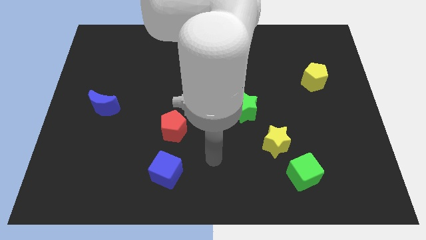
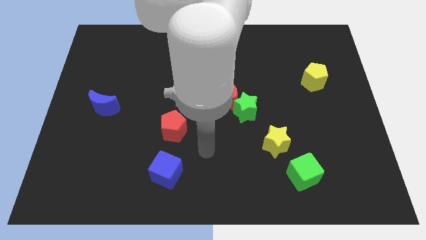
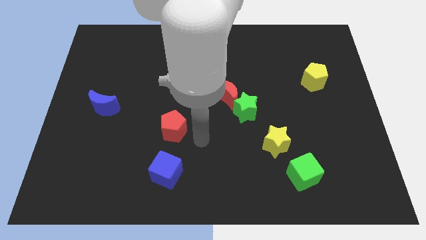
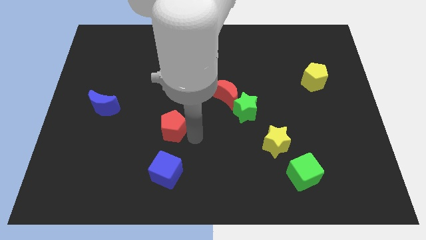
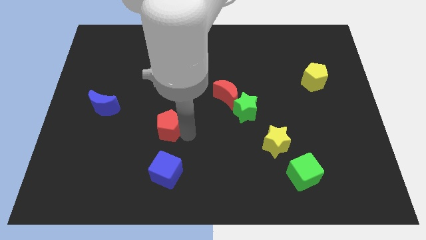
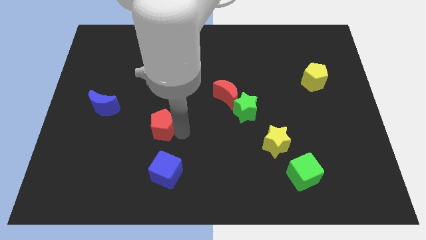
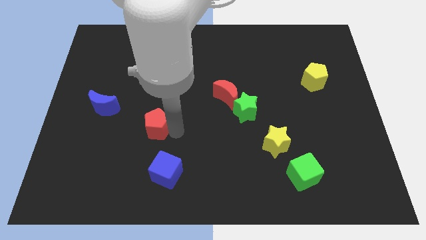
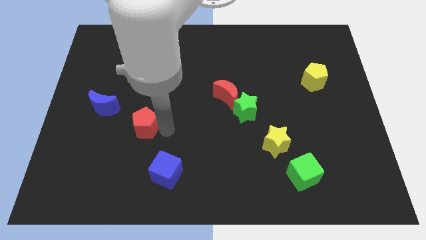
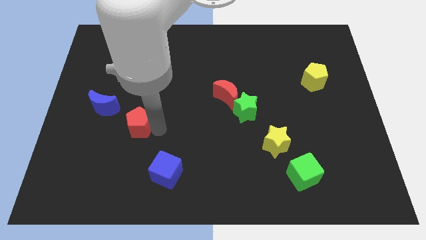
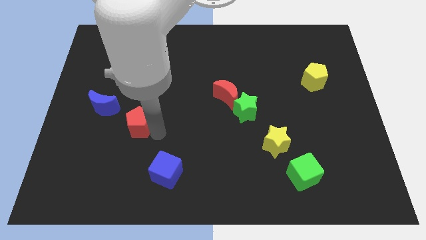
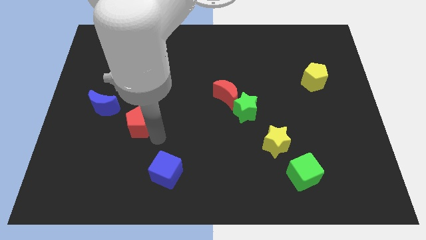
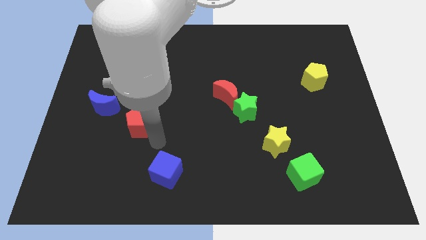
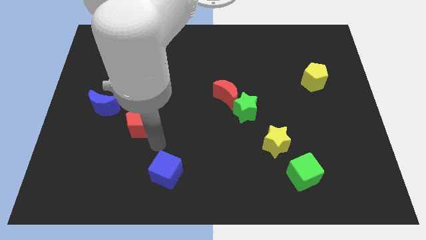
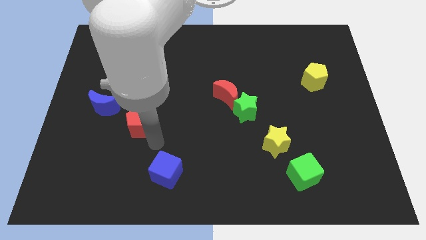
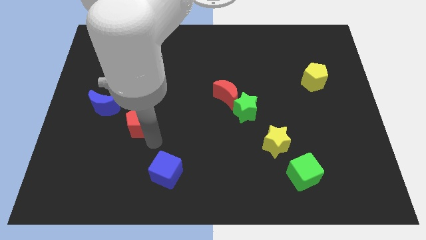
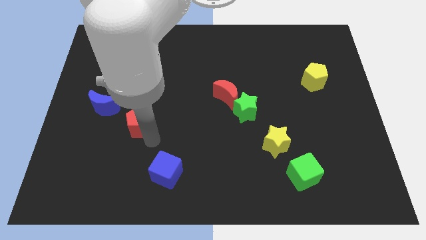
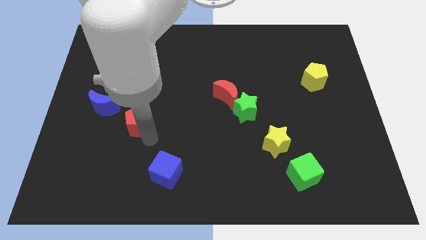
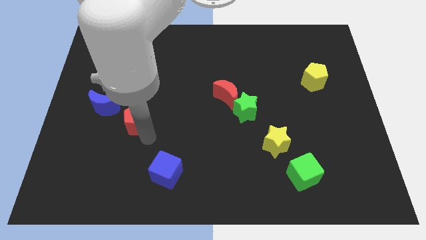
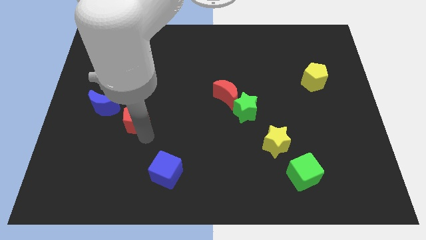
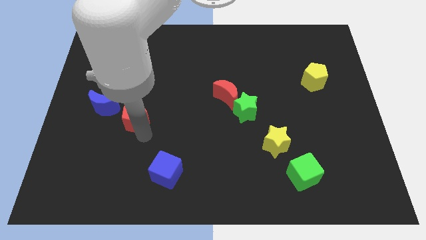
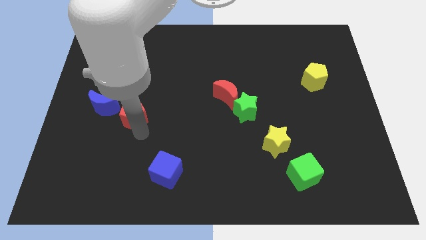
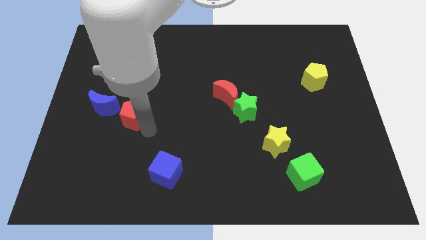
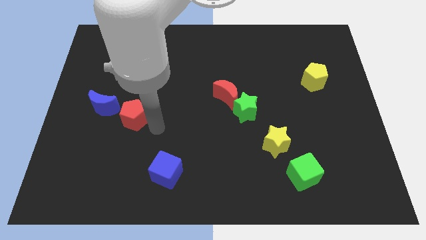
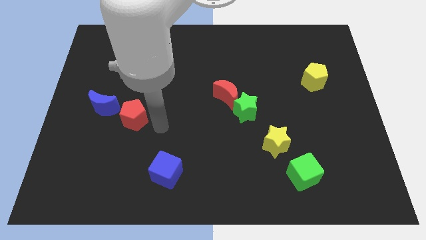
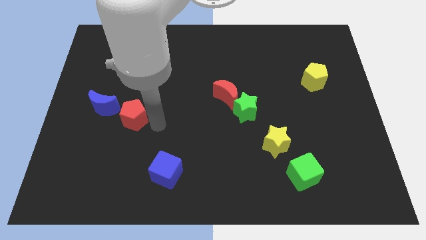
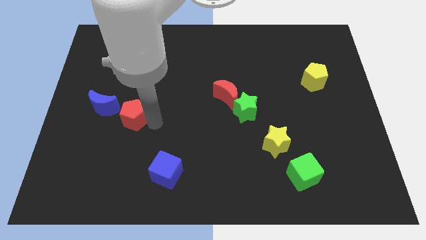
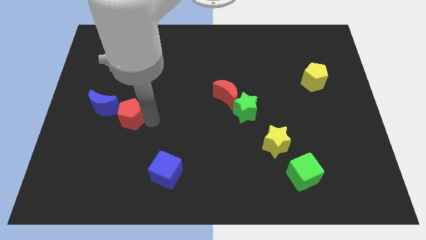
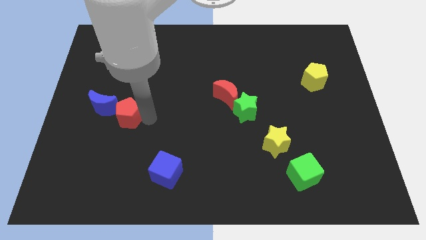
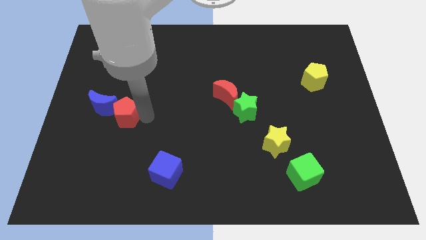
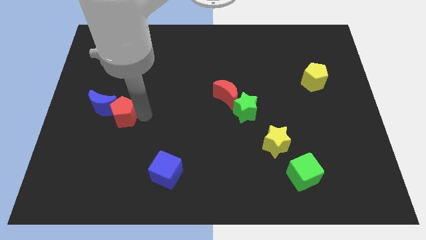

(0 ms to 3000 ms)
slide the red pentagon next to the blue moon

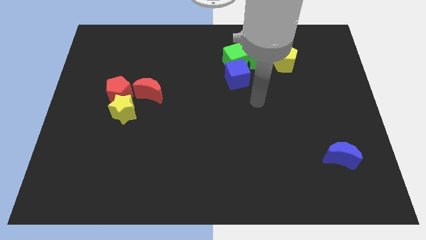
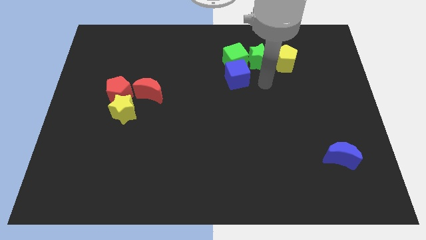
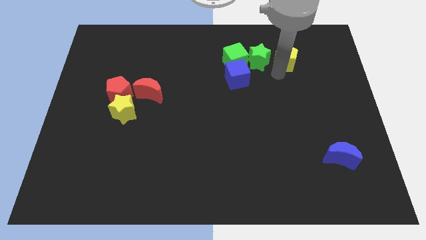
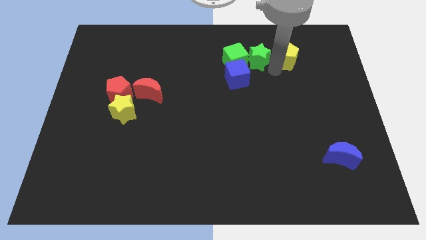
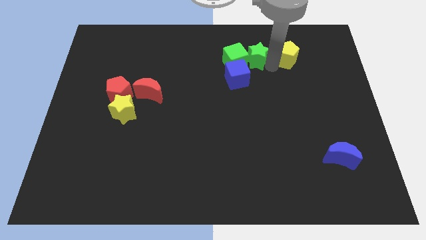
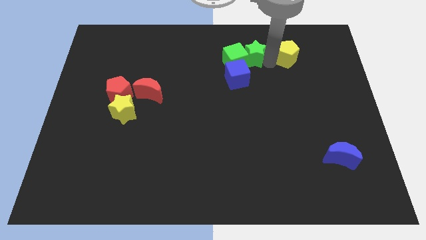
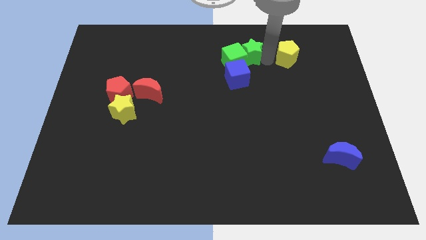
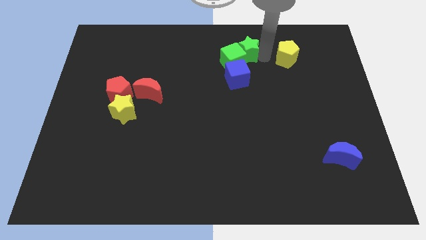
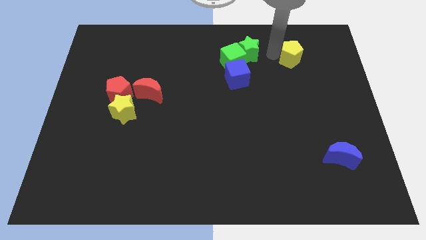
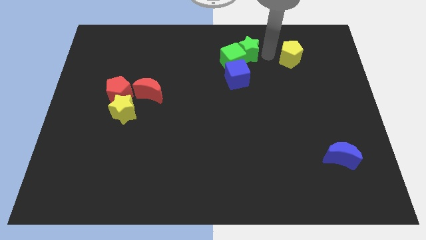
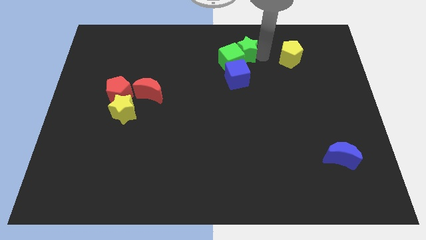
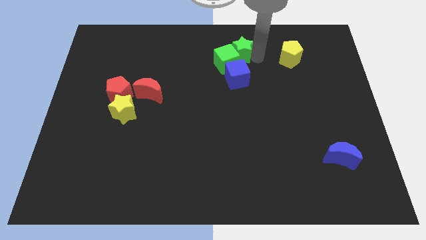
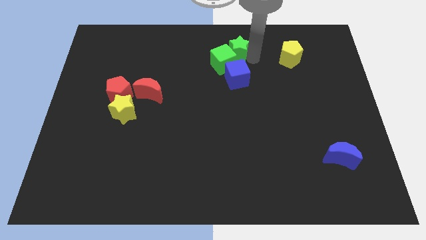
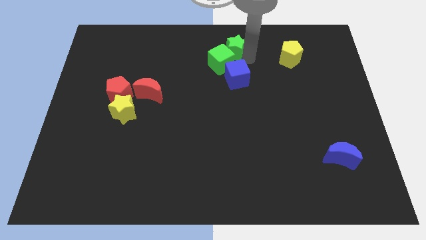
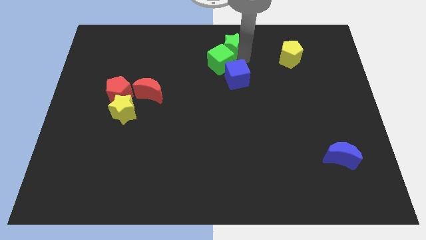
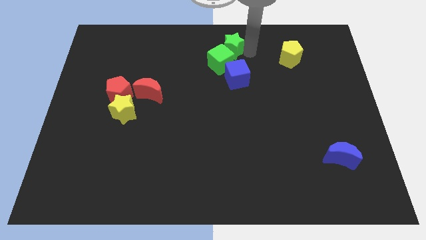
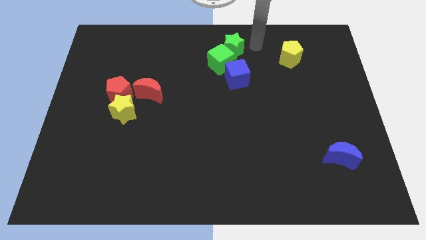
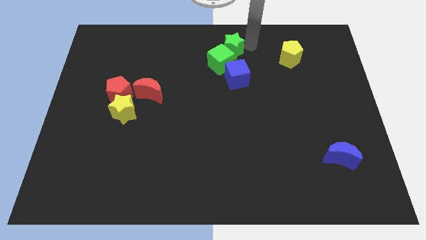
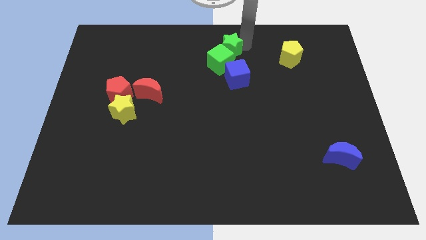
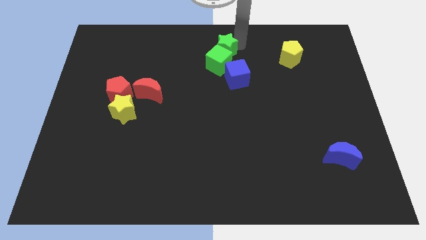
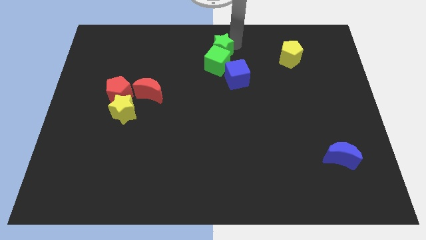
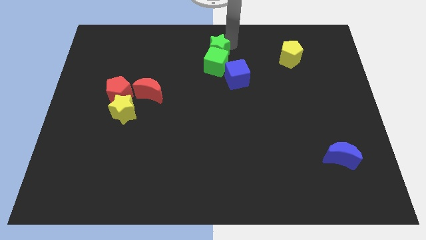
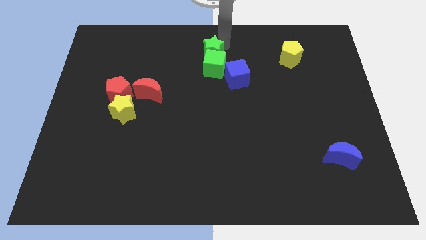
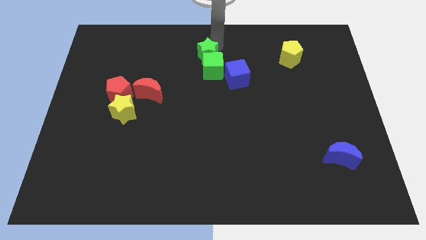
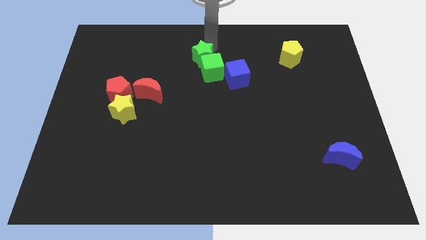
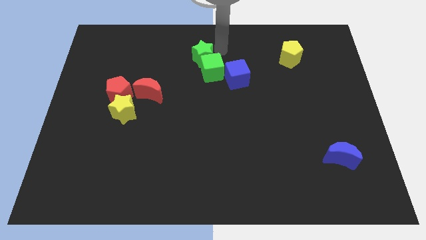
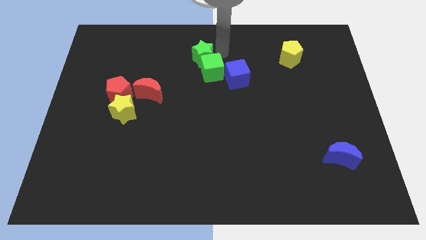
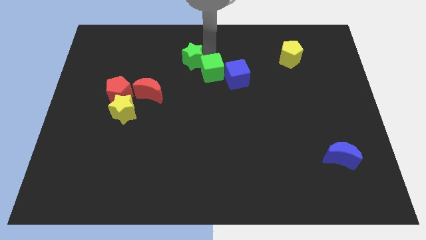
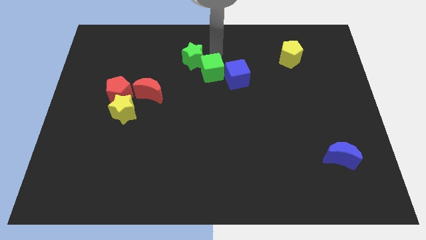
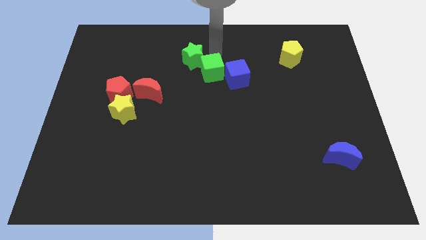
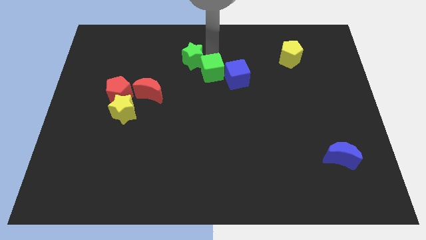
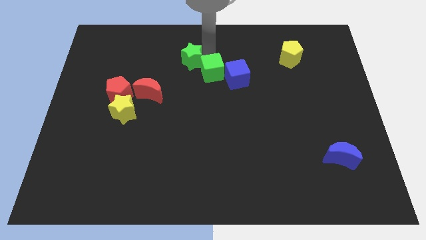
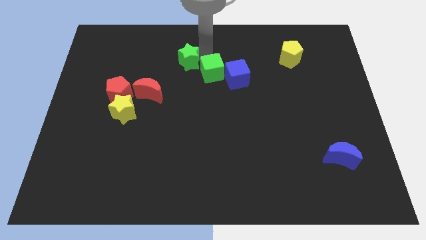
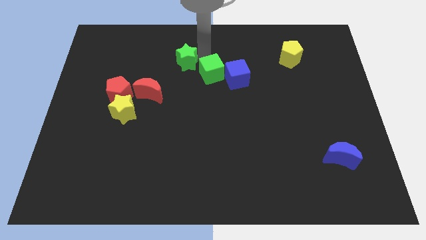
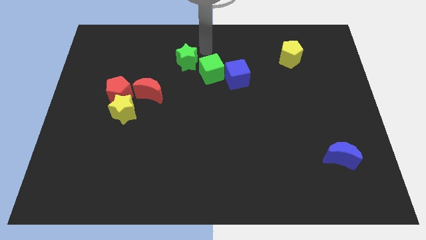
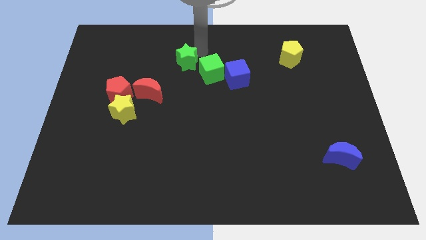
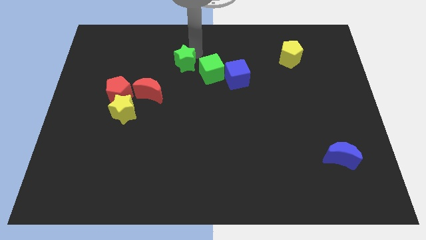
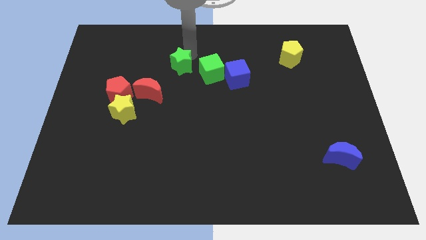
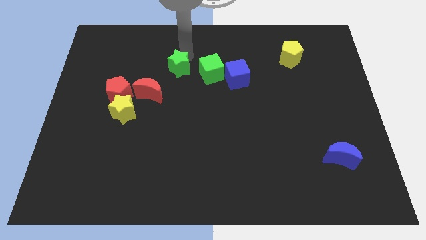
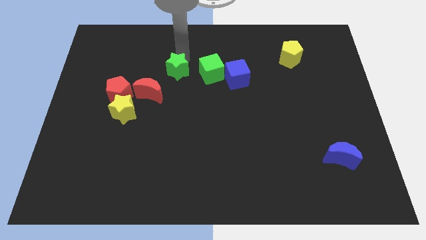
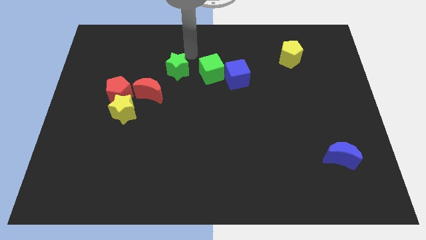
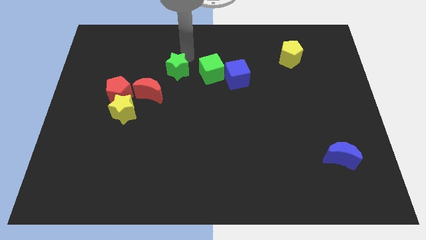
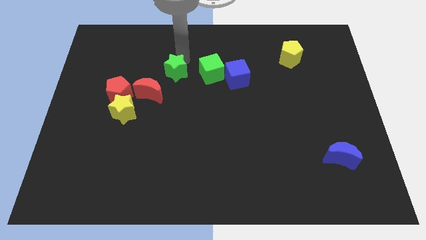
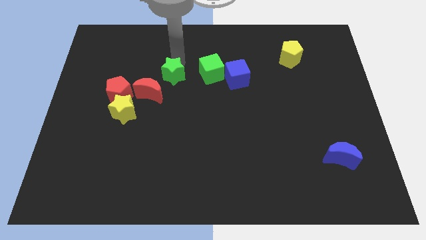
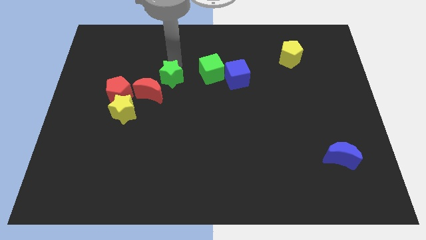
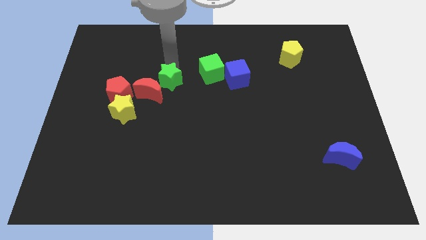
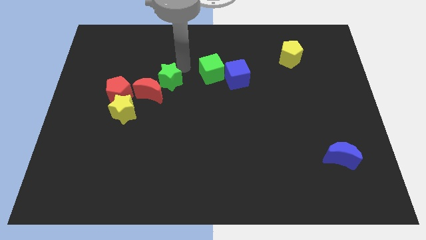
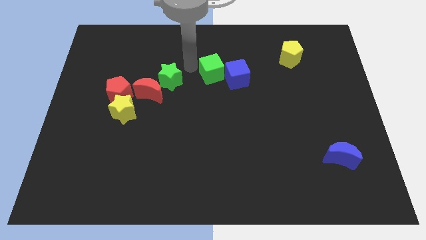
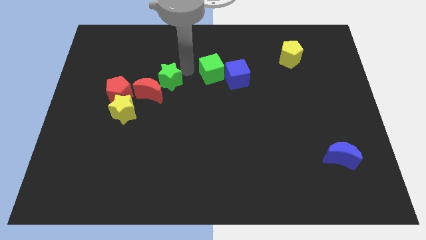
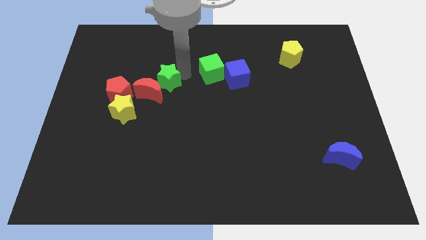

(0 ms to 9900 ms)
move the green star to the red moon

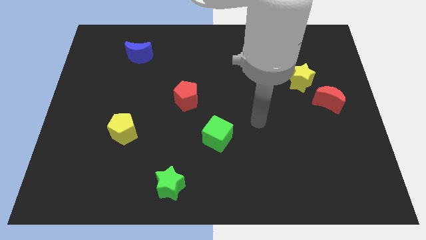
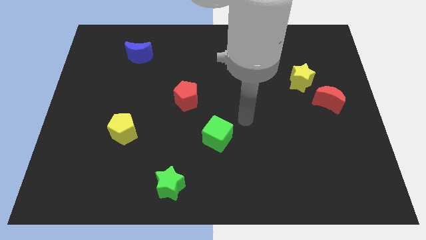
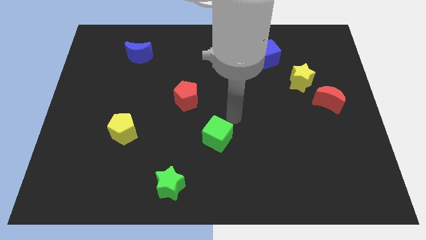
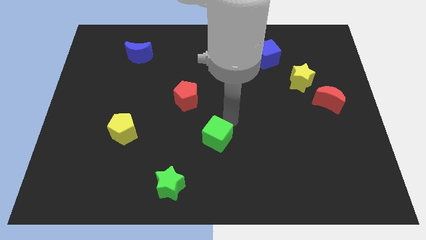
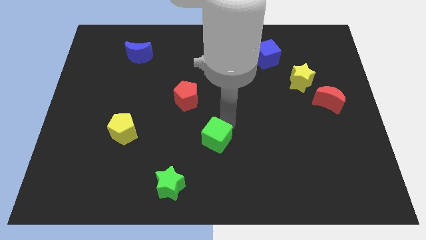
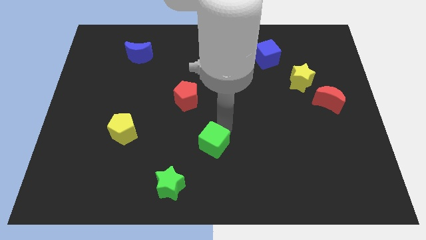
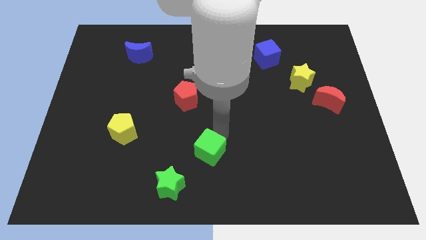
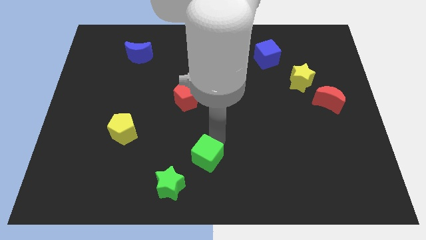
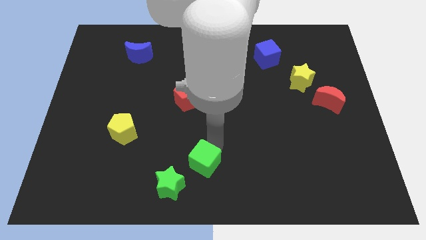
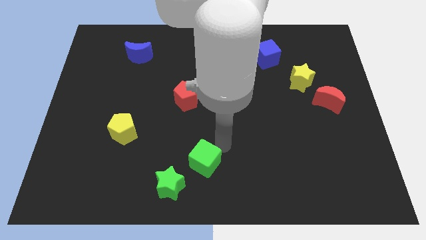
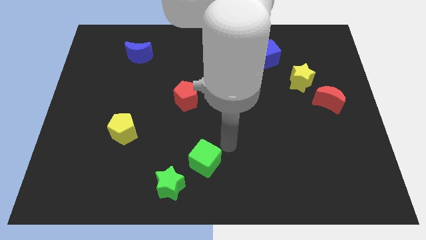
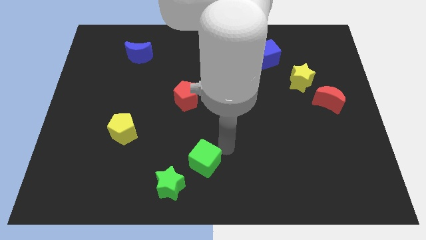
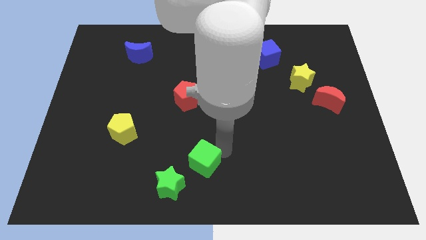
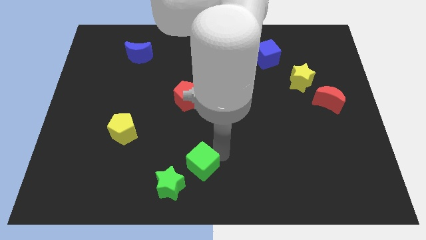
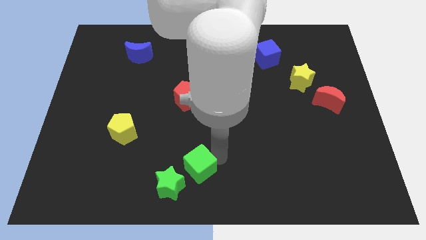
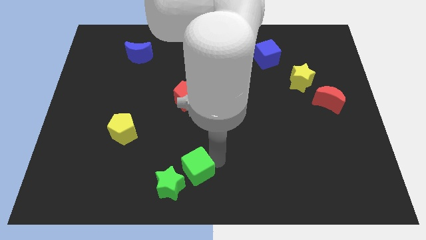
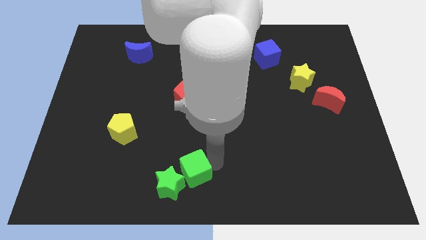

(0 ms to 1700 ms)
slide the green cube to the green star
